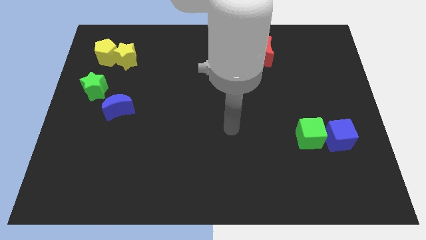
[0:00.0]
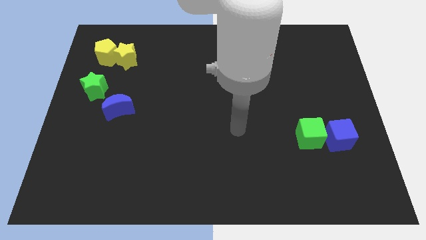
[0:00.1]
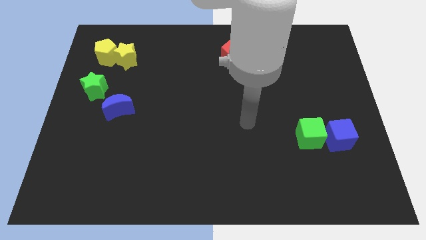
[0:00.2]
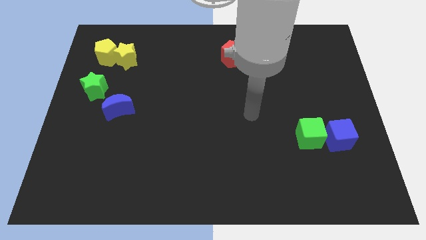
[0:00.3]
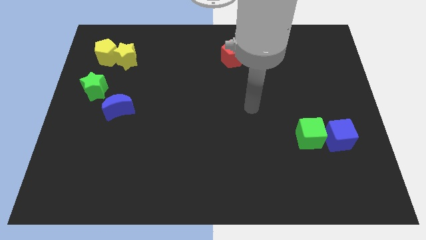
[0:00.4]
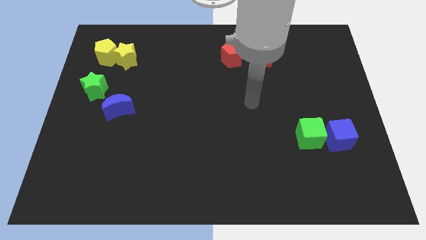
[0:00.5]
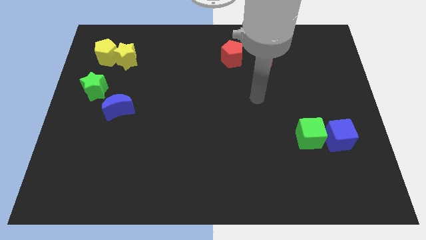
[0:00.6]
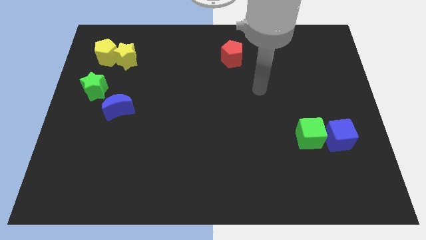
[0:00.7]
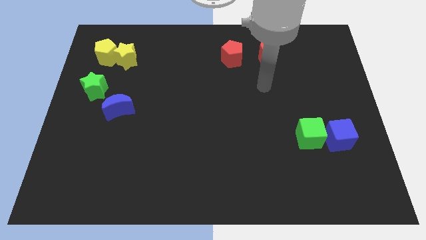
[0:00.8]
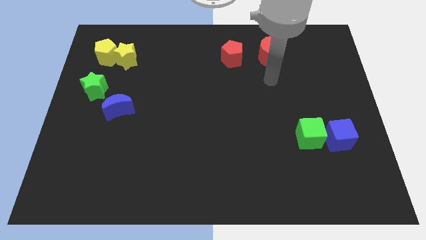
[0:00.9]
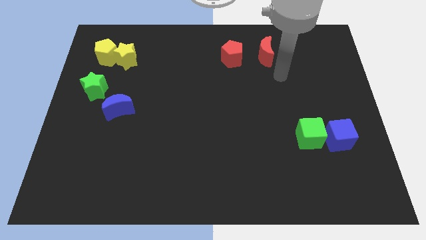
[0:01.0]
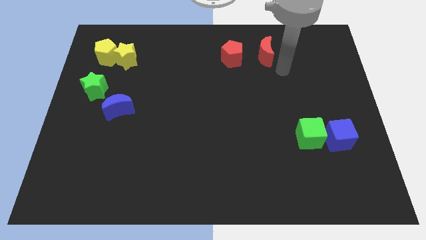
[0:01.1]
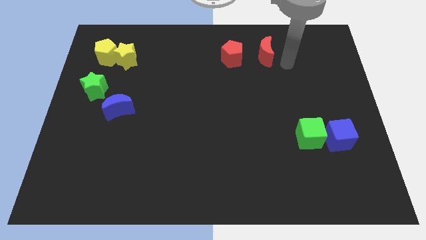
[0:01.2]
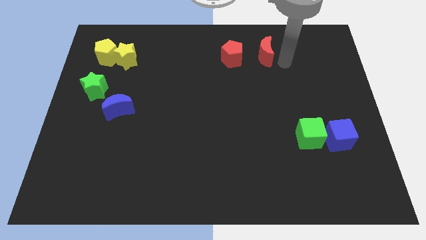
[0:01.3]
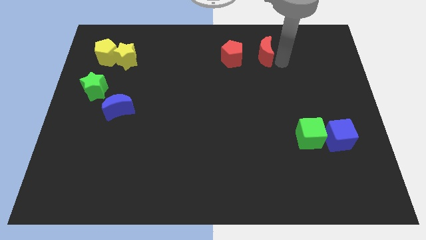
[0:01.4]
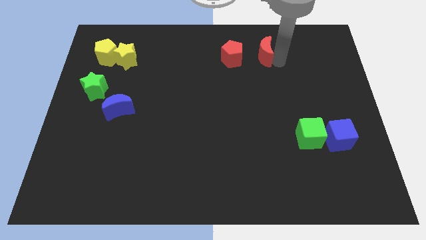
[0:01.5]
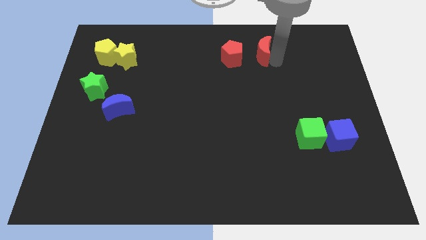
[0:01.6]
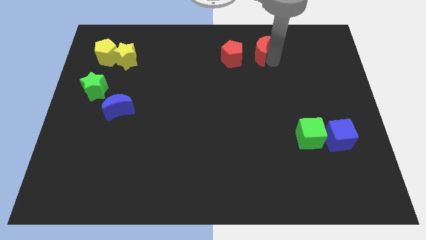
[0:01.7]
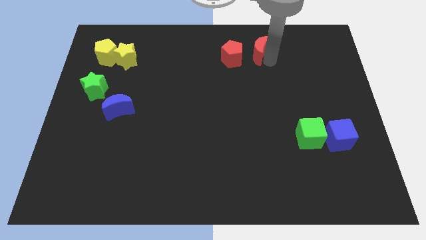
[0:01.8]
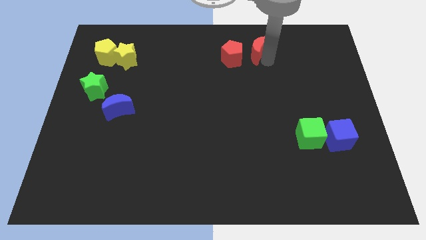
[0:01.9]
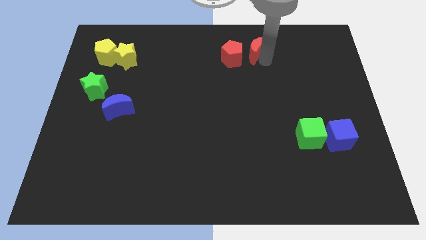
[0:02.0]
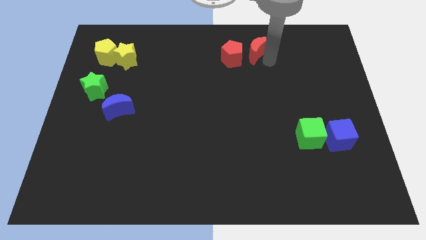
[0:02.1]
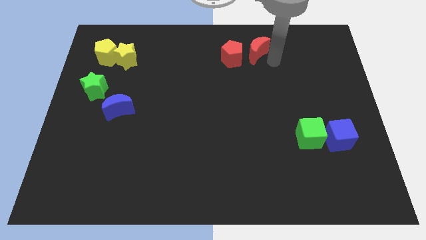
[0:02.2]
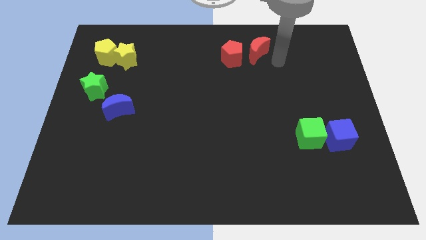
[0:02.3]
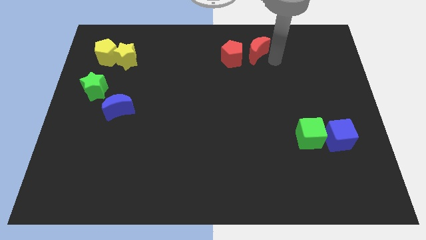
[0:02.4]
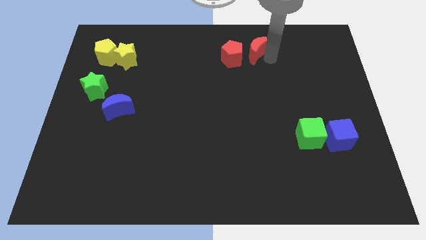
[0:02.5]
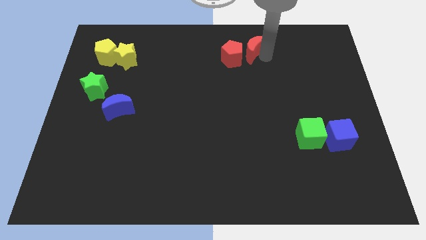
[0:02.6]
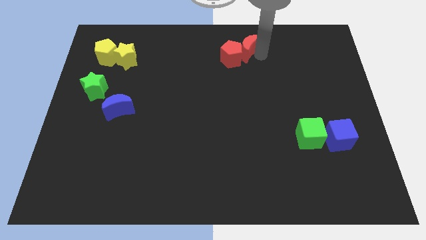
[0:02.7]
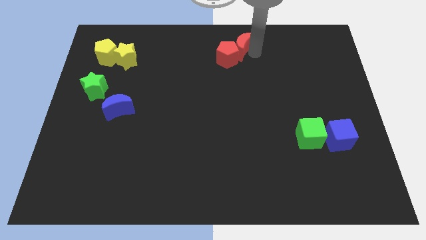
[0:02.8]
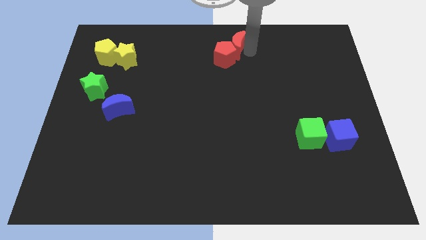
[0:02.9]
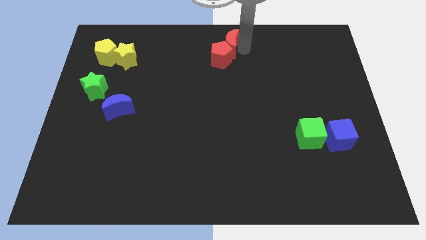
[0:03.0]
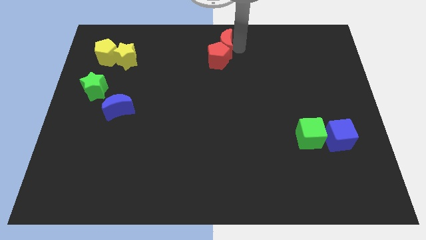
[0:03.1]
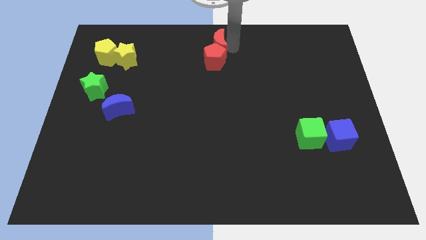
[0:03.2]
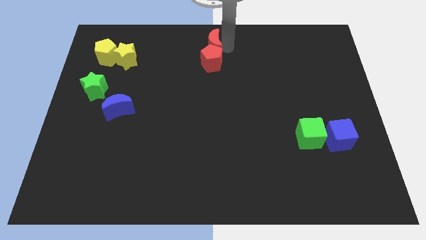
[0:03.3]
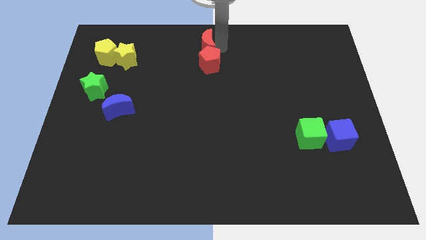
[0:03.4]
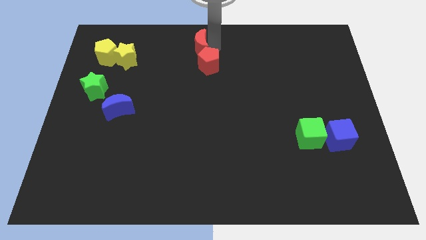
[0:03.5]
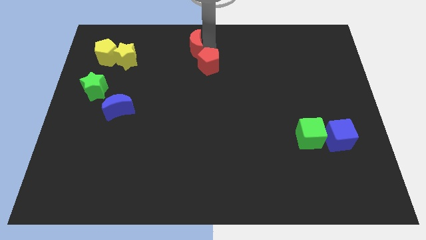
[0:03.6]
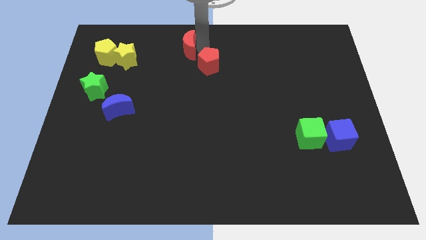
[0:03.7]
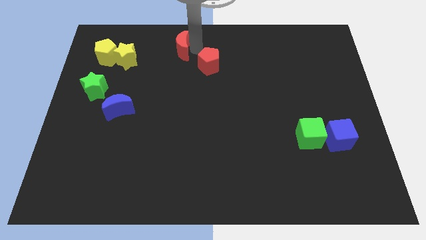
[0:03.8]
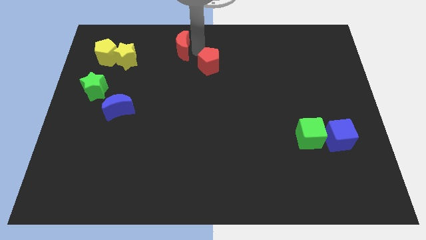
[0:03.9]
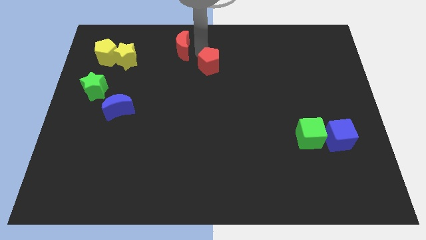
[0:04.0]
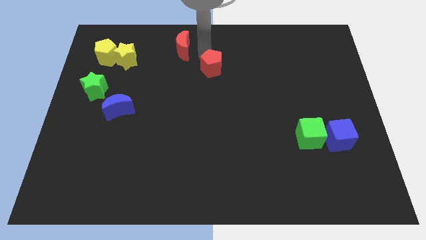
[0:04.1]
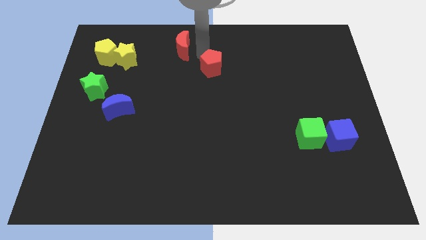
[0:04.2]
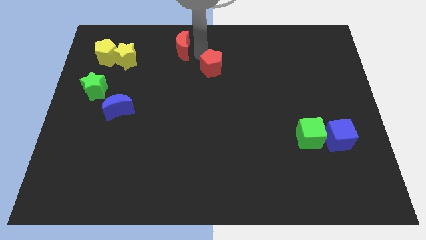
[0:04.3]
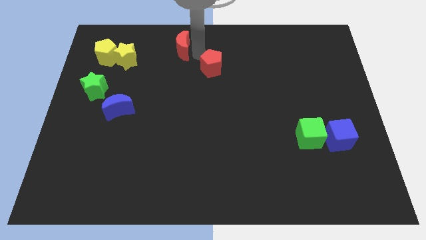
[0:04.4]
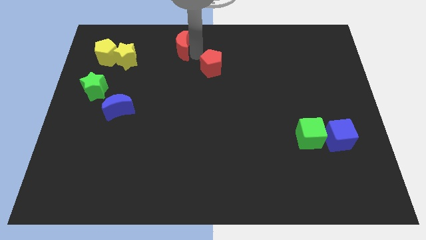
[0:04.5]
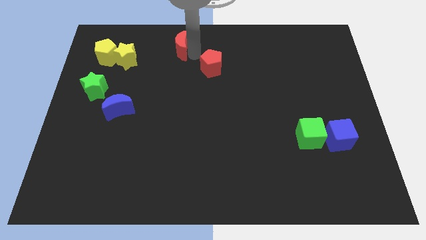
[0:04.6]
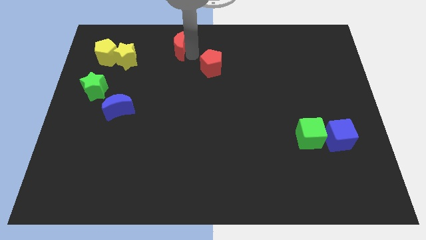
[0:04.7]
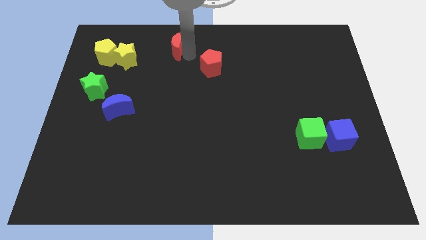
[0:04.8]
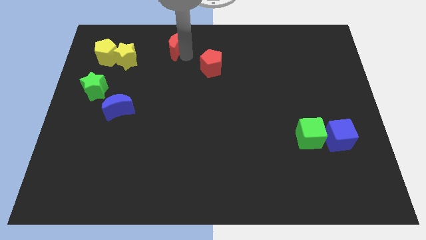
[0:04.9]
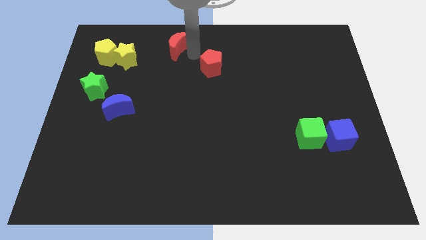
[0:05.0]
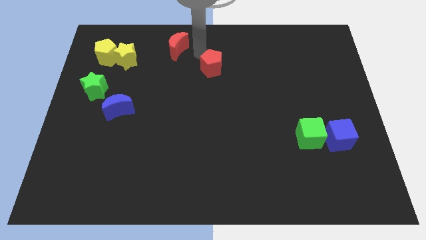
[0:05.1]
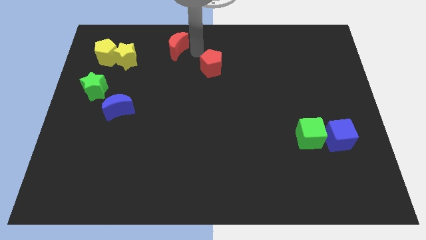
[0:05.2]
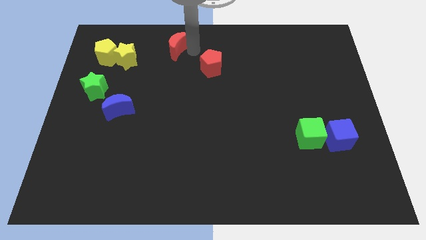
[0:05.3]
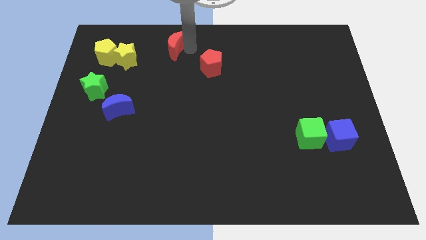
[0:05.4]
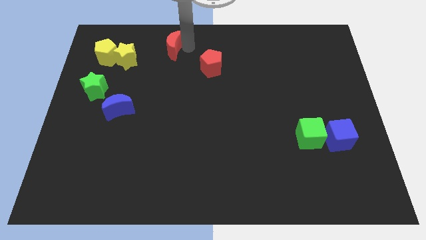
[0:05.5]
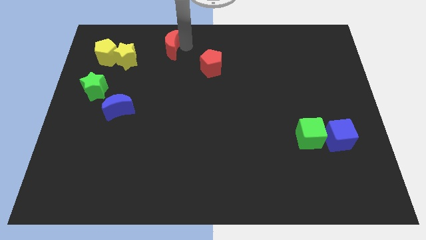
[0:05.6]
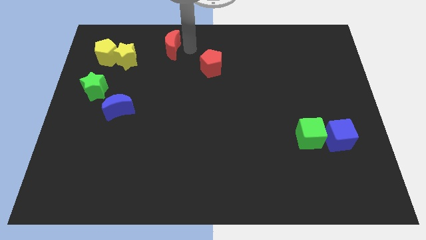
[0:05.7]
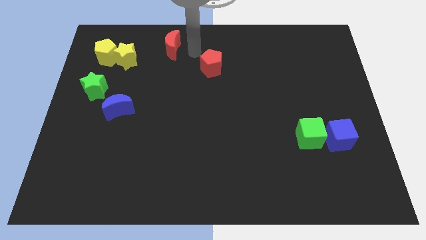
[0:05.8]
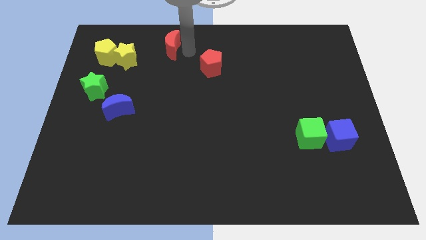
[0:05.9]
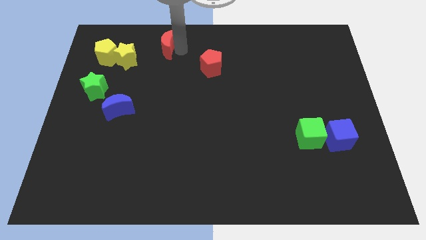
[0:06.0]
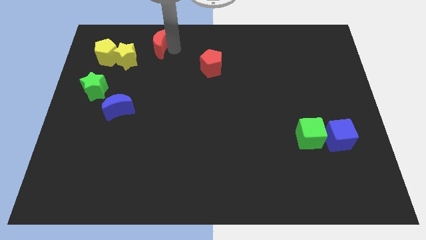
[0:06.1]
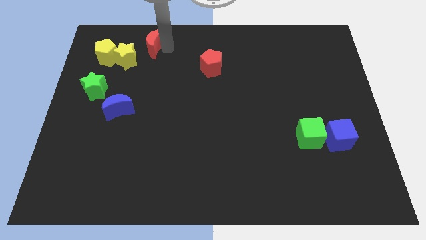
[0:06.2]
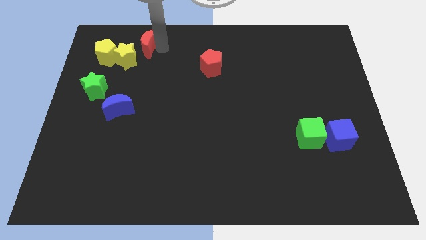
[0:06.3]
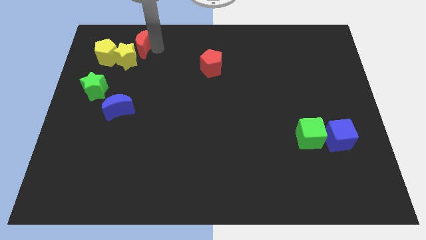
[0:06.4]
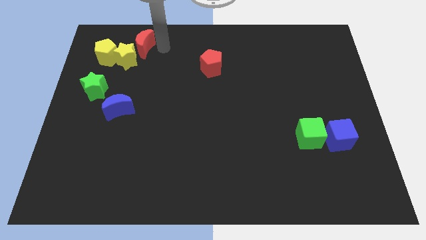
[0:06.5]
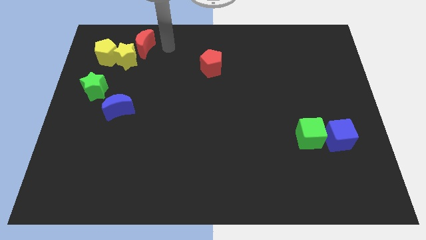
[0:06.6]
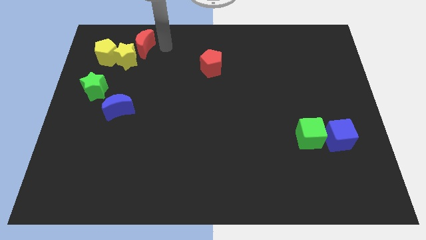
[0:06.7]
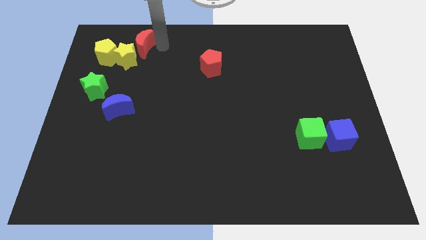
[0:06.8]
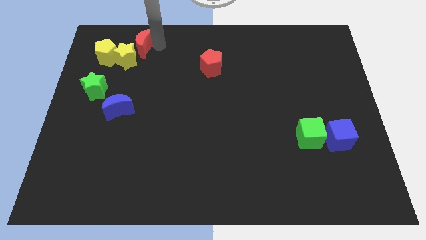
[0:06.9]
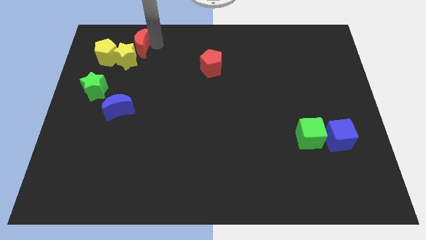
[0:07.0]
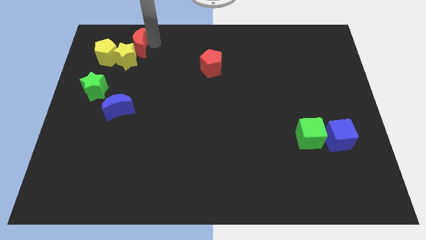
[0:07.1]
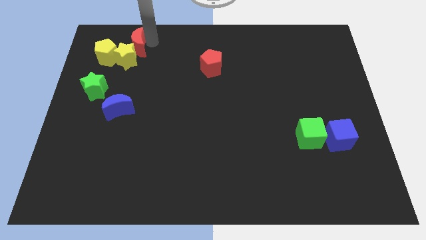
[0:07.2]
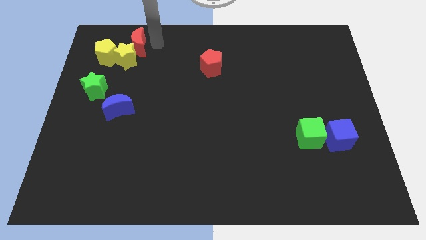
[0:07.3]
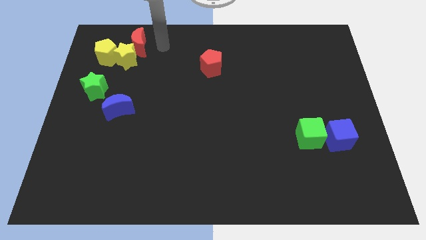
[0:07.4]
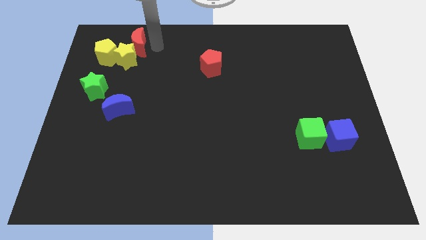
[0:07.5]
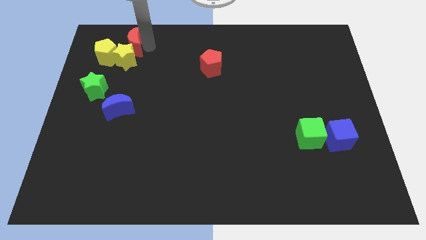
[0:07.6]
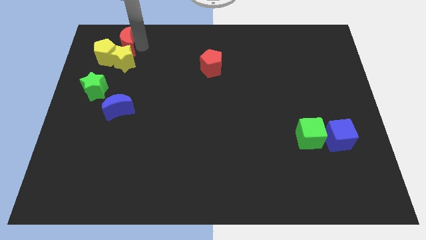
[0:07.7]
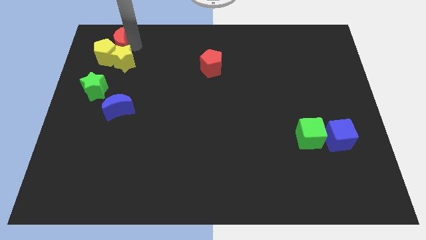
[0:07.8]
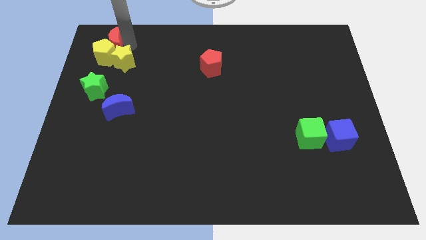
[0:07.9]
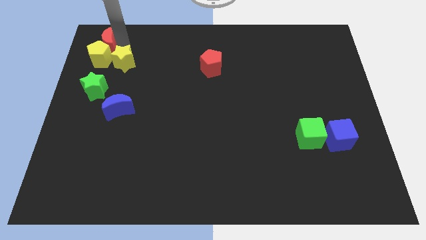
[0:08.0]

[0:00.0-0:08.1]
push the red moon to the top side of the green star
